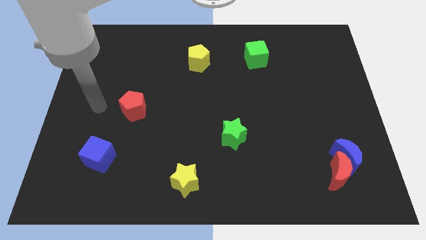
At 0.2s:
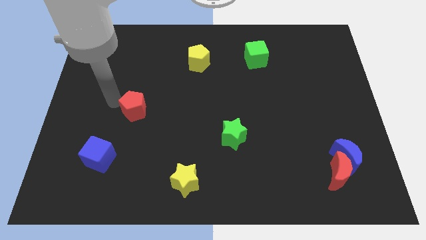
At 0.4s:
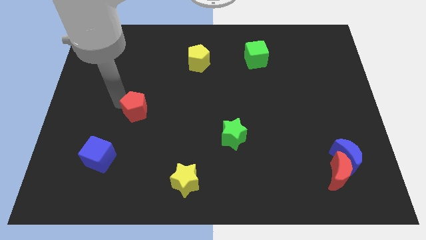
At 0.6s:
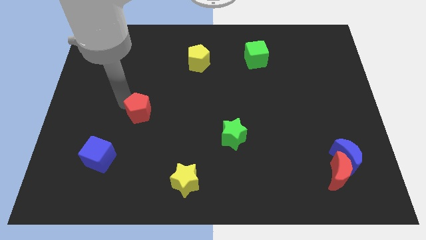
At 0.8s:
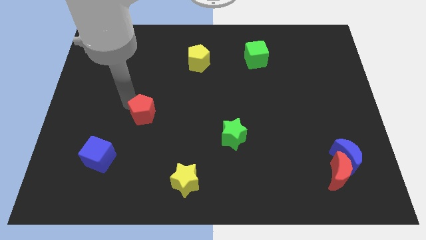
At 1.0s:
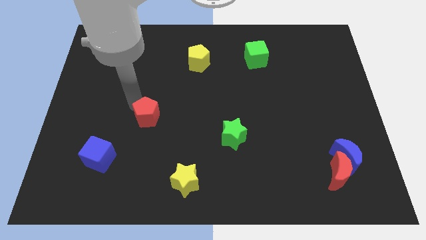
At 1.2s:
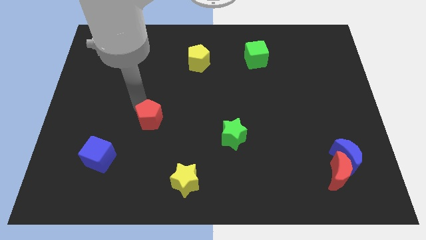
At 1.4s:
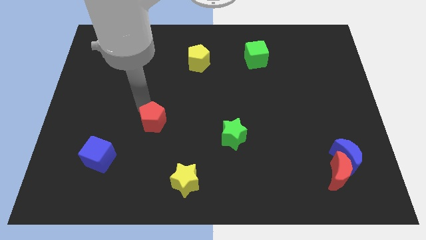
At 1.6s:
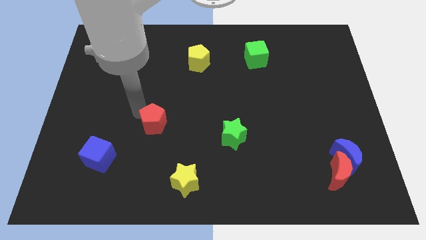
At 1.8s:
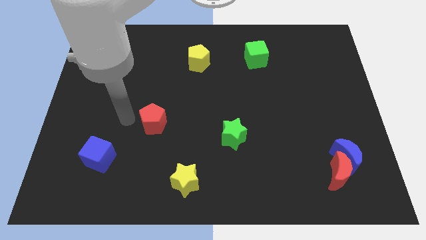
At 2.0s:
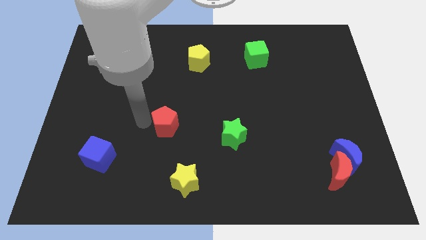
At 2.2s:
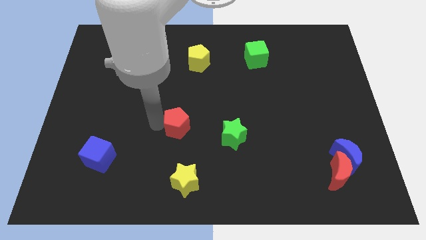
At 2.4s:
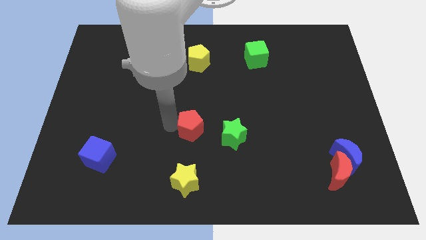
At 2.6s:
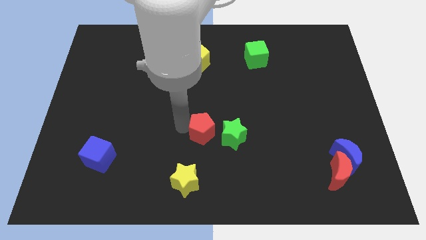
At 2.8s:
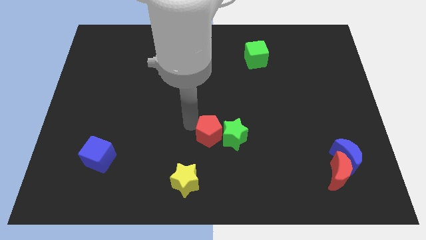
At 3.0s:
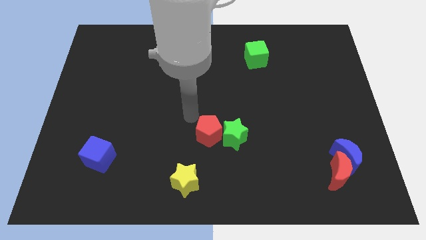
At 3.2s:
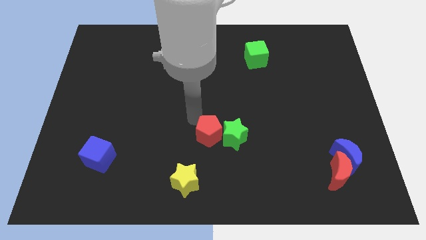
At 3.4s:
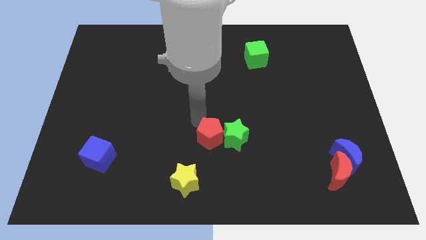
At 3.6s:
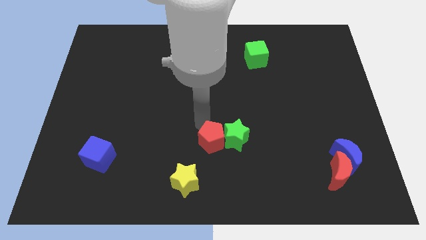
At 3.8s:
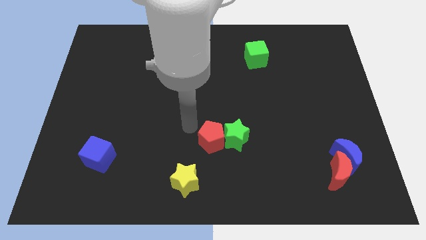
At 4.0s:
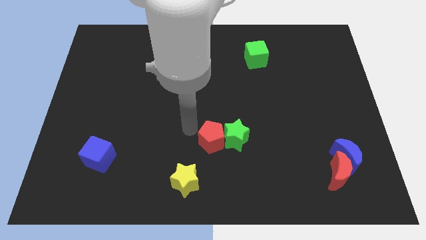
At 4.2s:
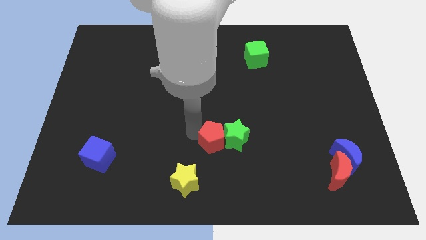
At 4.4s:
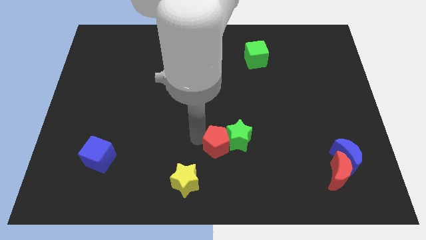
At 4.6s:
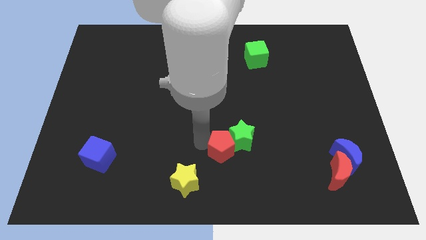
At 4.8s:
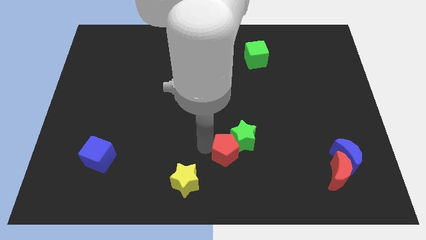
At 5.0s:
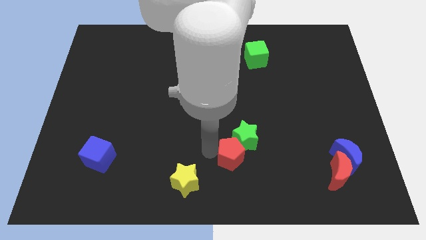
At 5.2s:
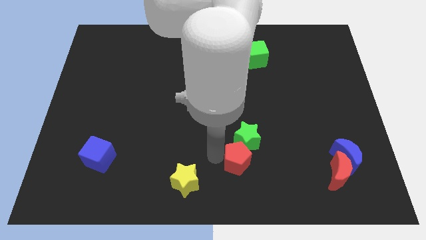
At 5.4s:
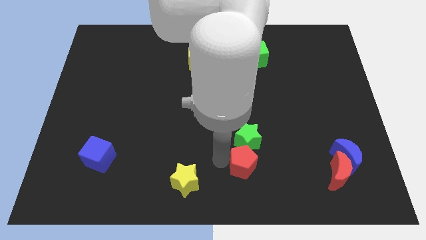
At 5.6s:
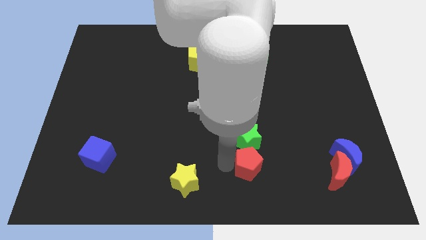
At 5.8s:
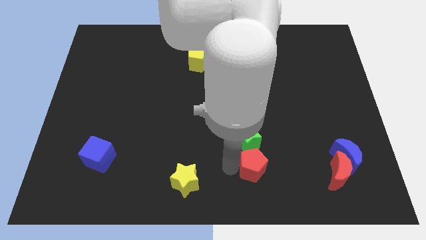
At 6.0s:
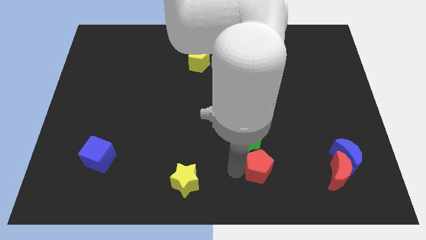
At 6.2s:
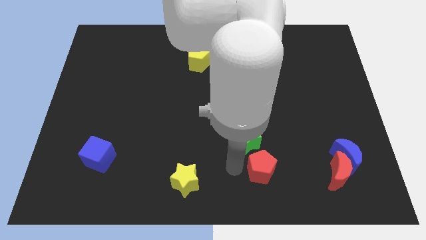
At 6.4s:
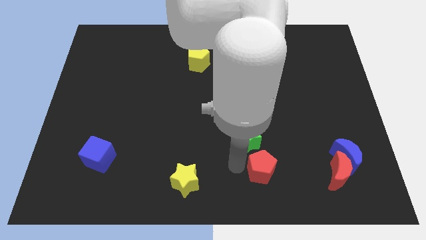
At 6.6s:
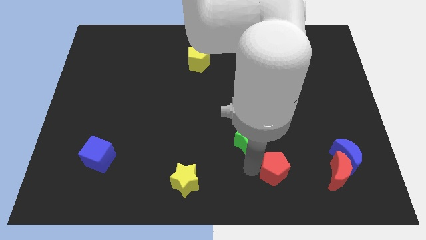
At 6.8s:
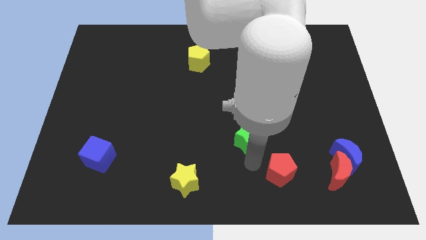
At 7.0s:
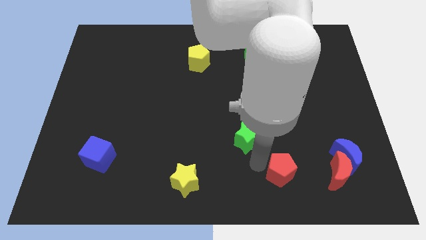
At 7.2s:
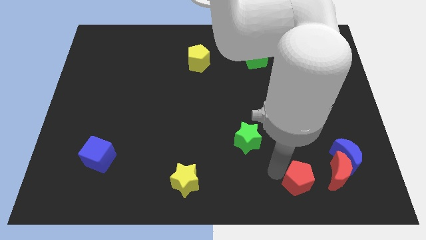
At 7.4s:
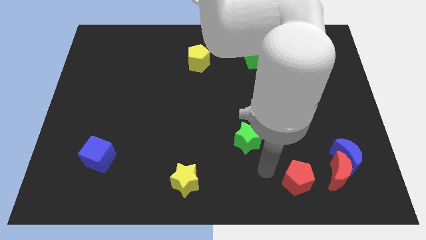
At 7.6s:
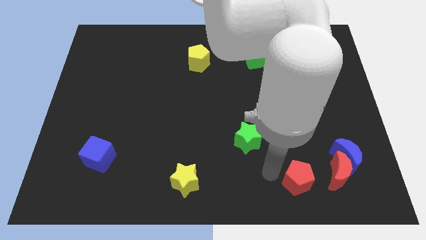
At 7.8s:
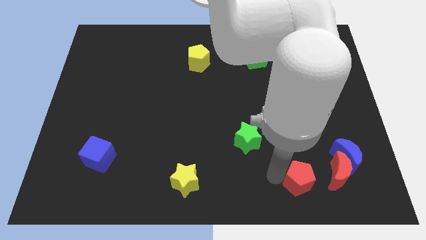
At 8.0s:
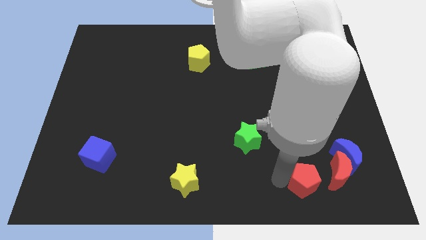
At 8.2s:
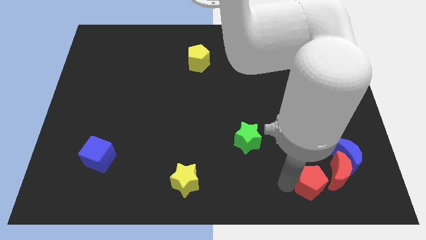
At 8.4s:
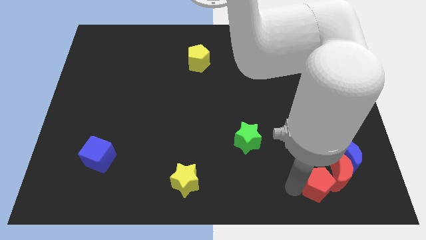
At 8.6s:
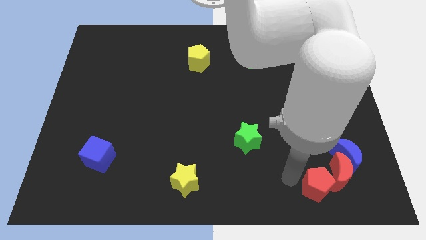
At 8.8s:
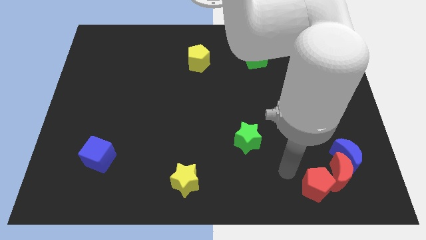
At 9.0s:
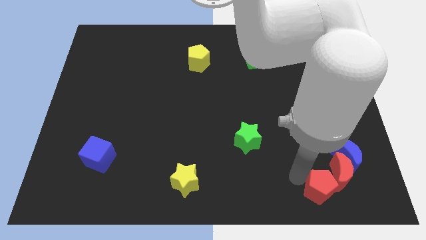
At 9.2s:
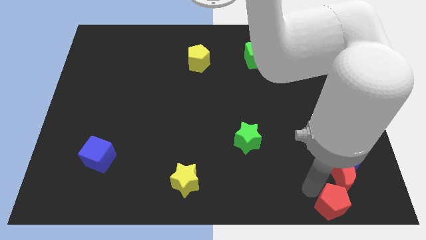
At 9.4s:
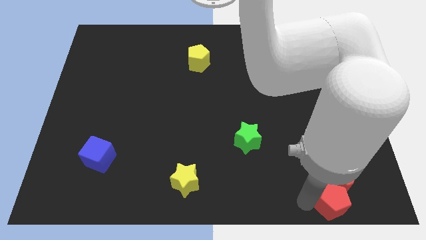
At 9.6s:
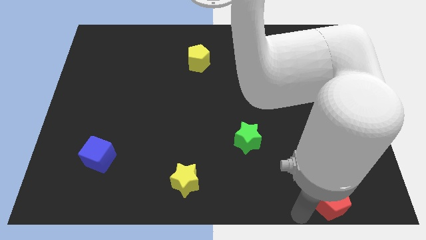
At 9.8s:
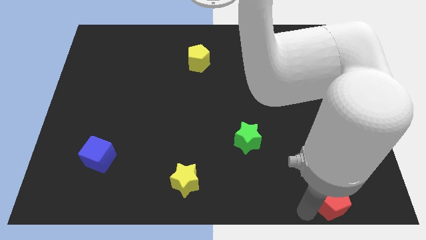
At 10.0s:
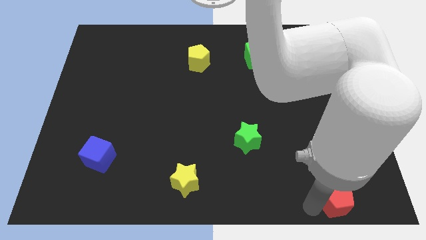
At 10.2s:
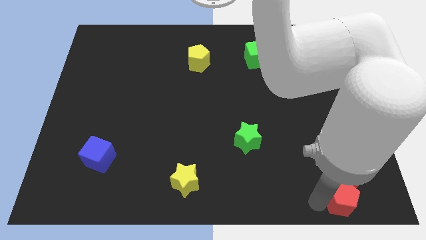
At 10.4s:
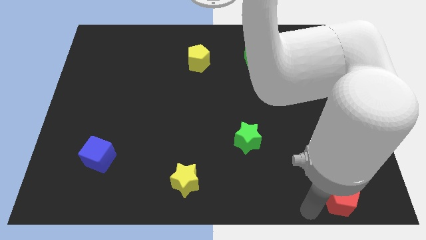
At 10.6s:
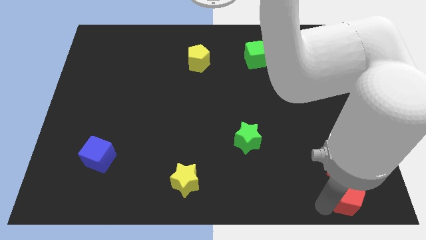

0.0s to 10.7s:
slide the red pentagon to the lower right corner

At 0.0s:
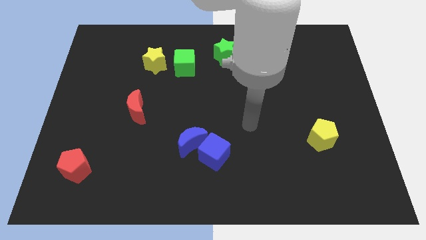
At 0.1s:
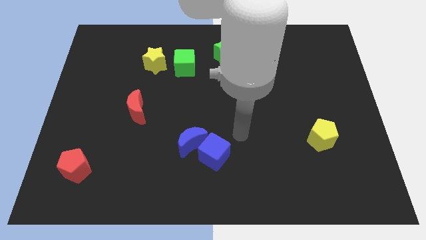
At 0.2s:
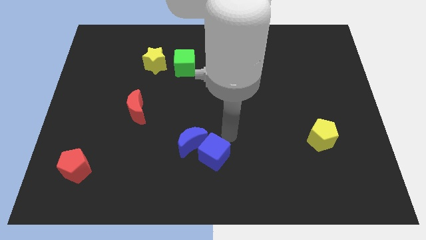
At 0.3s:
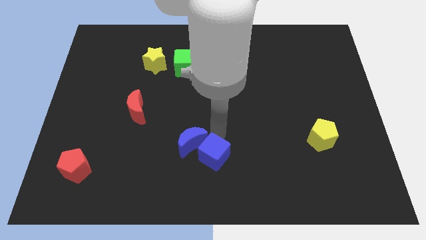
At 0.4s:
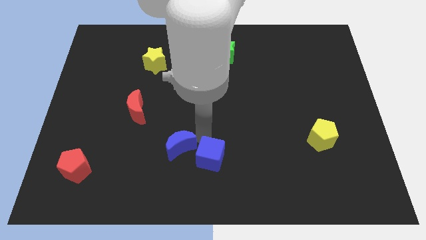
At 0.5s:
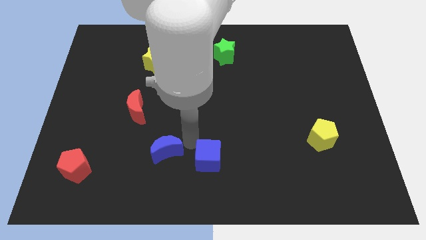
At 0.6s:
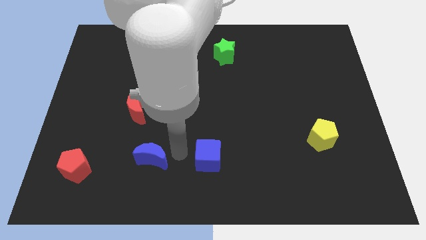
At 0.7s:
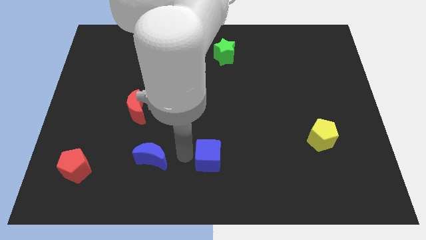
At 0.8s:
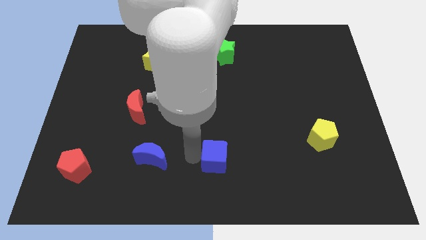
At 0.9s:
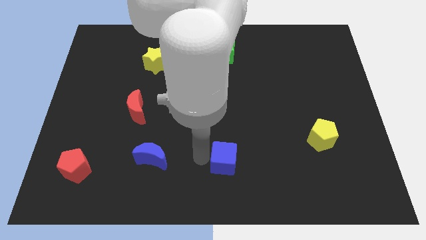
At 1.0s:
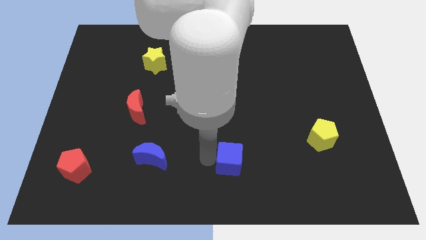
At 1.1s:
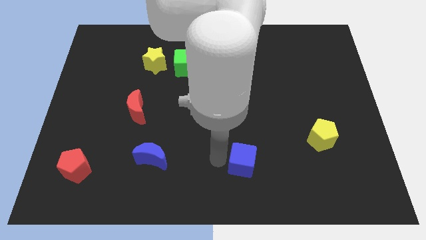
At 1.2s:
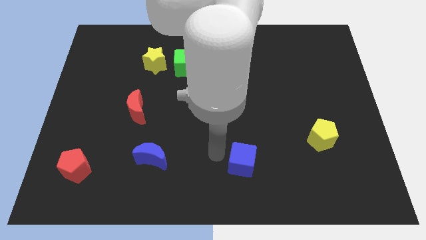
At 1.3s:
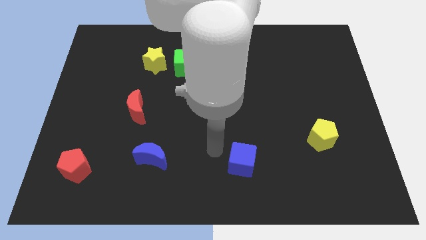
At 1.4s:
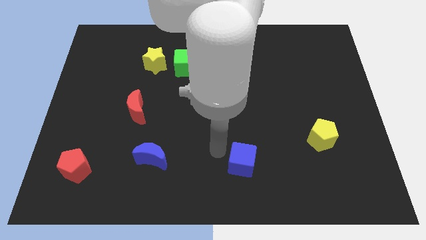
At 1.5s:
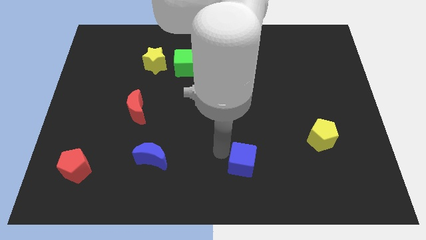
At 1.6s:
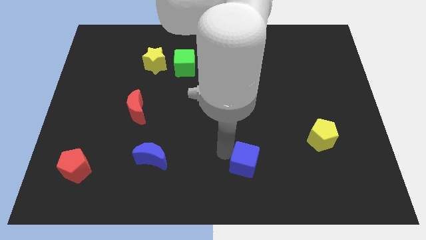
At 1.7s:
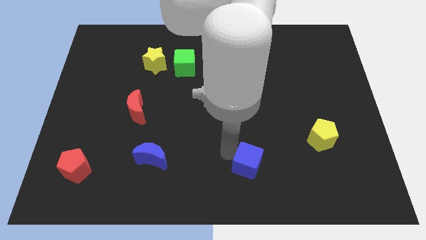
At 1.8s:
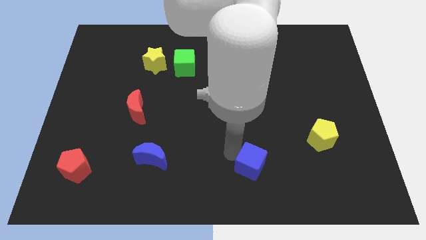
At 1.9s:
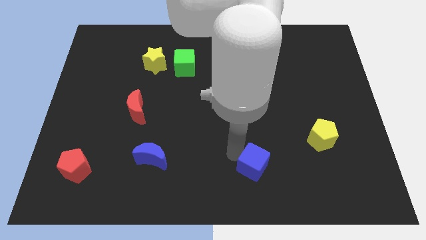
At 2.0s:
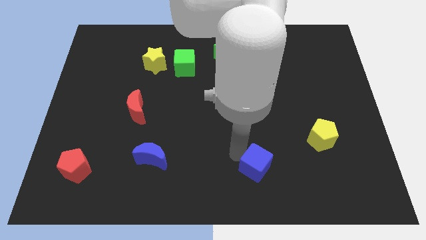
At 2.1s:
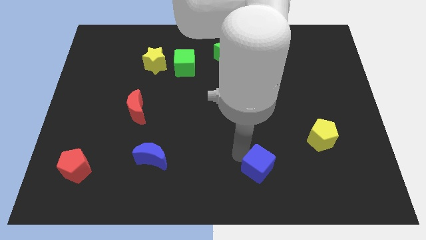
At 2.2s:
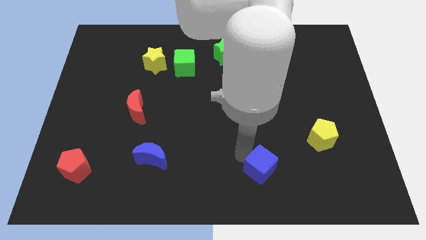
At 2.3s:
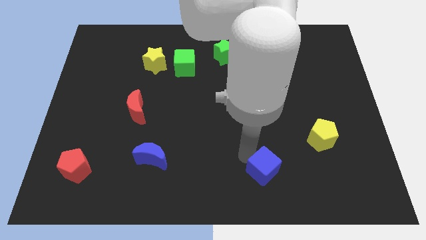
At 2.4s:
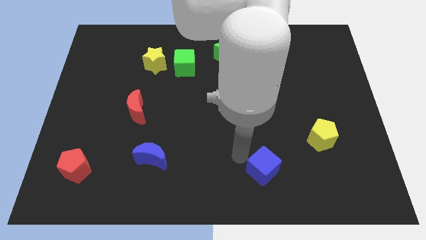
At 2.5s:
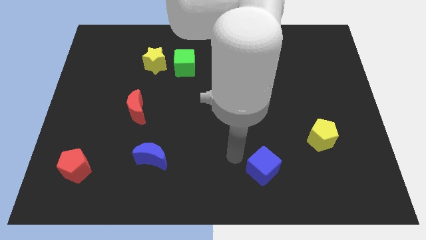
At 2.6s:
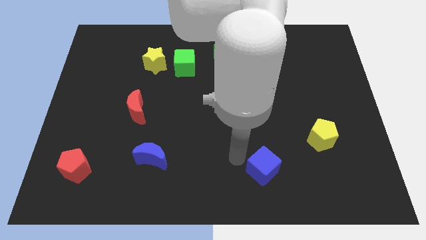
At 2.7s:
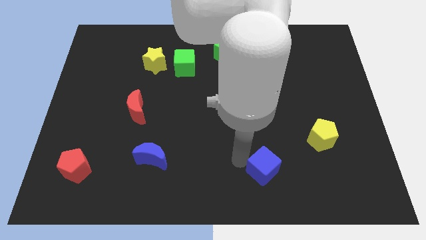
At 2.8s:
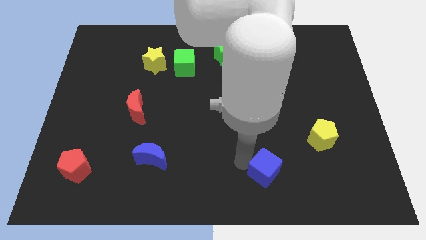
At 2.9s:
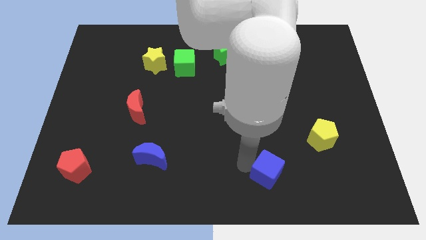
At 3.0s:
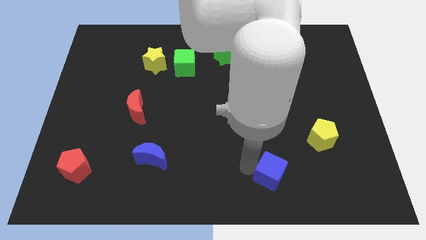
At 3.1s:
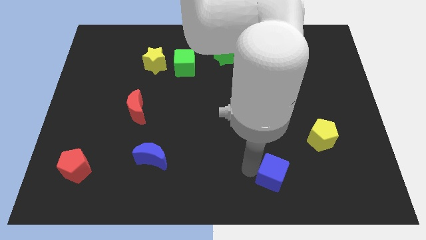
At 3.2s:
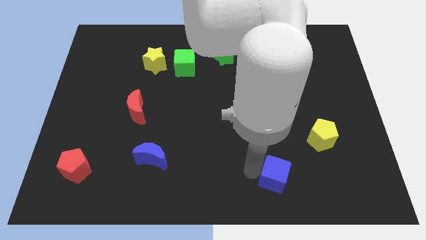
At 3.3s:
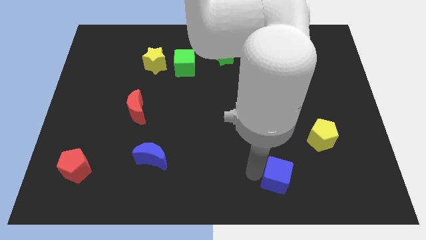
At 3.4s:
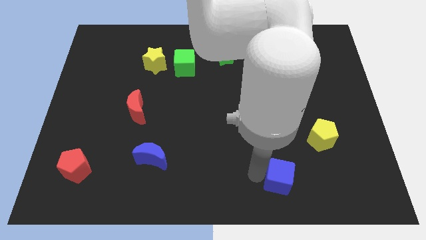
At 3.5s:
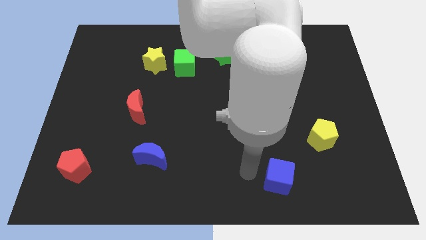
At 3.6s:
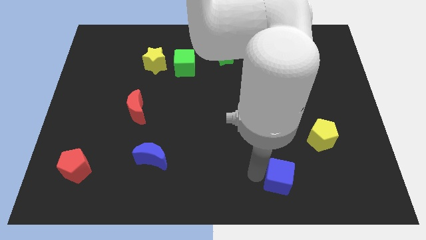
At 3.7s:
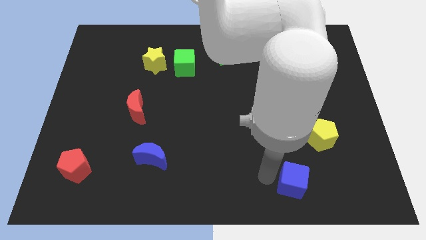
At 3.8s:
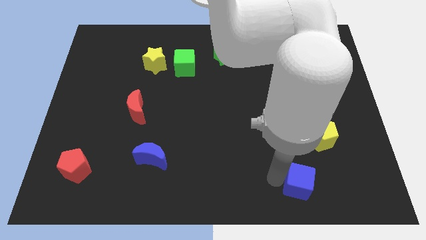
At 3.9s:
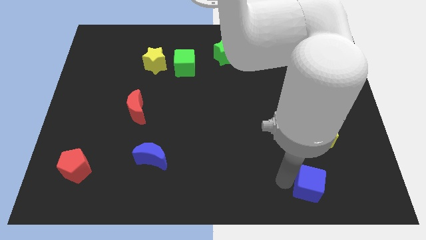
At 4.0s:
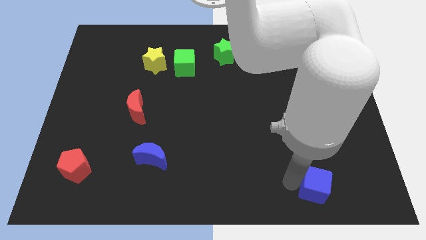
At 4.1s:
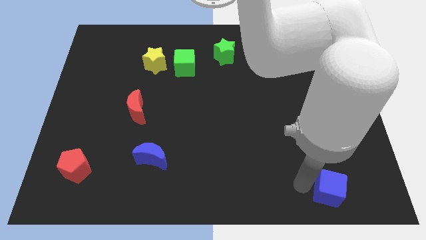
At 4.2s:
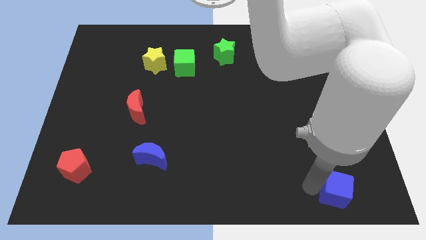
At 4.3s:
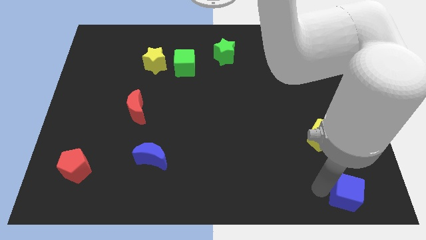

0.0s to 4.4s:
put the blue cube to the bottom right of the board
